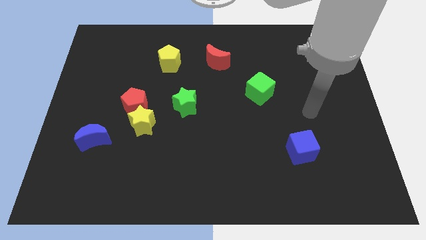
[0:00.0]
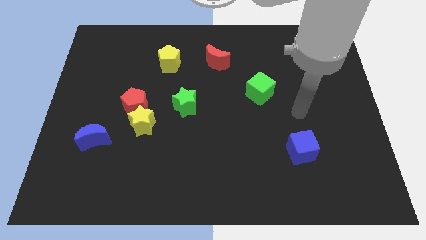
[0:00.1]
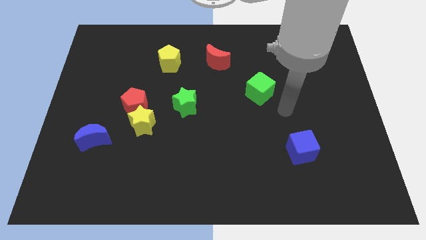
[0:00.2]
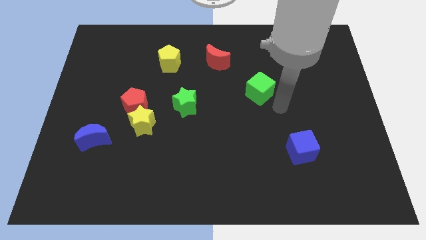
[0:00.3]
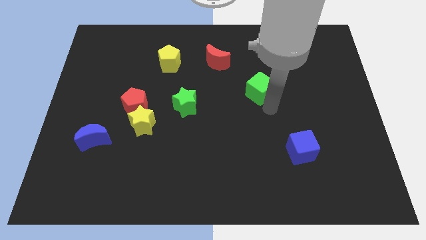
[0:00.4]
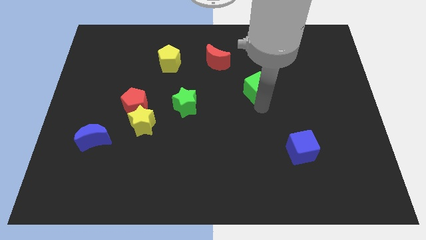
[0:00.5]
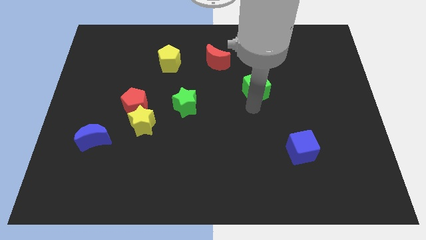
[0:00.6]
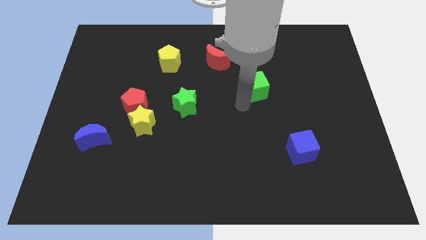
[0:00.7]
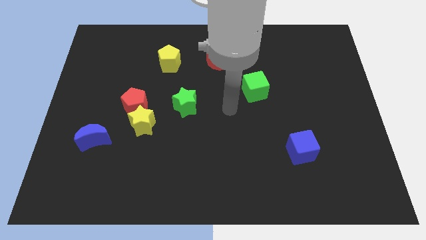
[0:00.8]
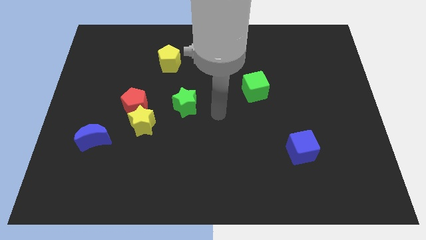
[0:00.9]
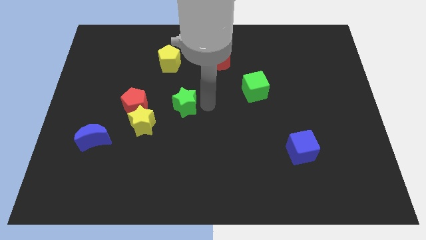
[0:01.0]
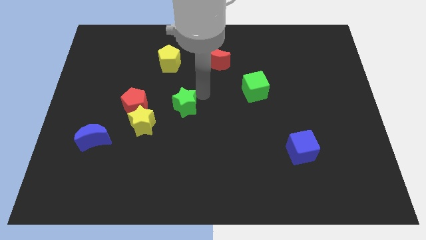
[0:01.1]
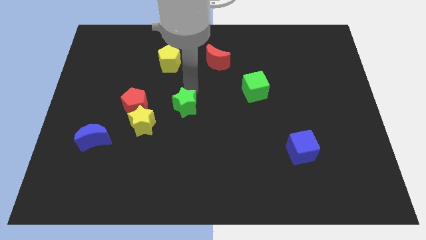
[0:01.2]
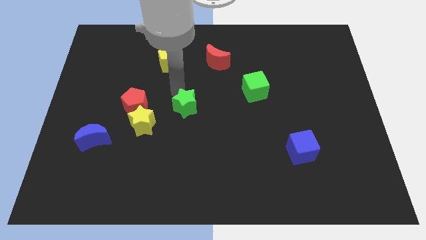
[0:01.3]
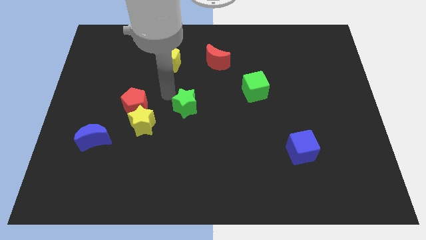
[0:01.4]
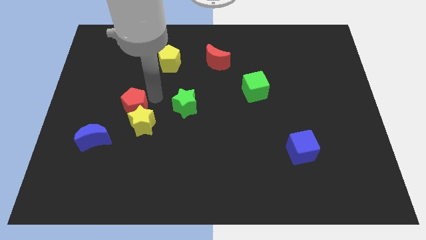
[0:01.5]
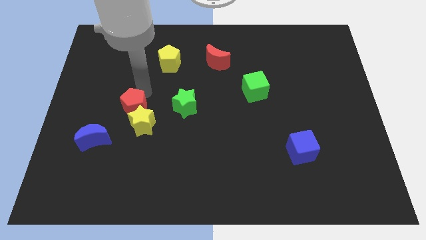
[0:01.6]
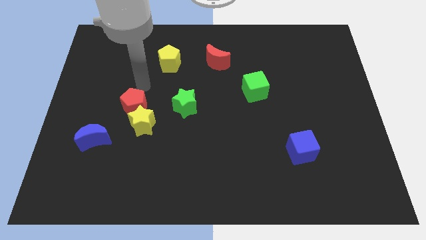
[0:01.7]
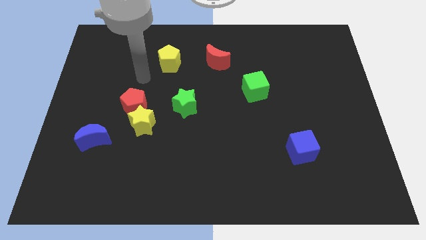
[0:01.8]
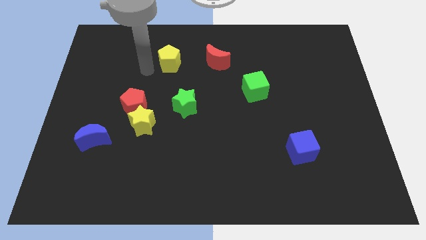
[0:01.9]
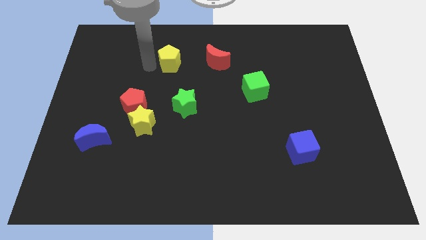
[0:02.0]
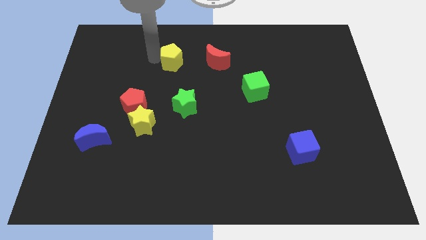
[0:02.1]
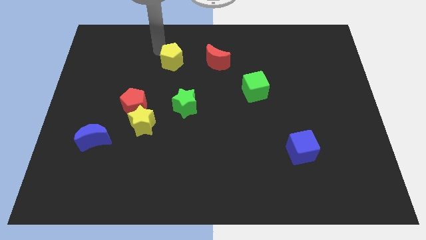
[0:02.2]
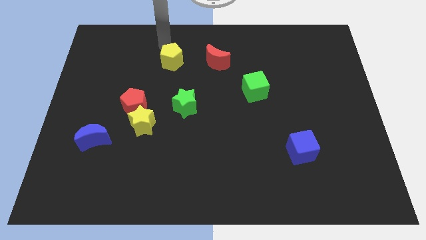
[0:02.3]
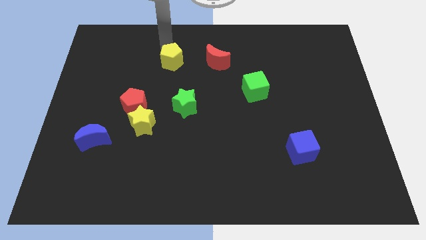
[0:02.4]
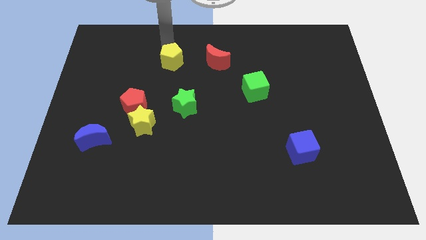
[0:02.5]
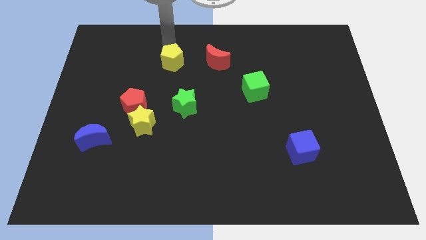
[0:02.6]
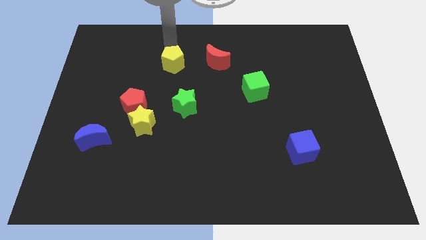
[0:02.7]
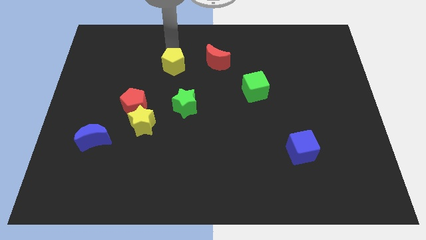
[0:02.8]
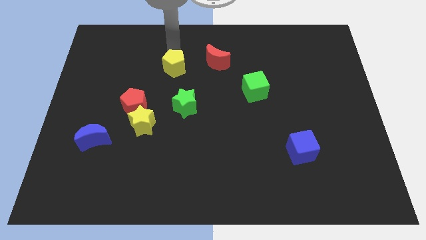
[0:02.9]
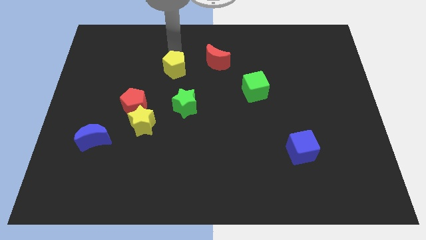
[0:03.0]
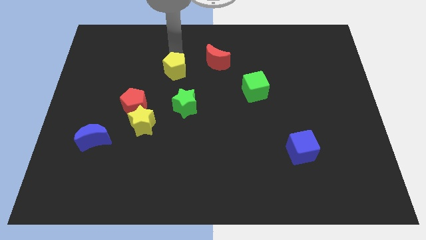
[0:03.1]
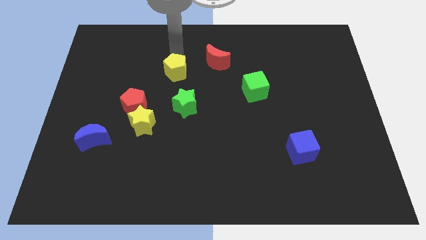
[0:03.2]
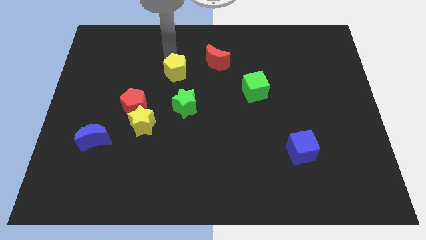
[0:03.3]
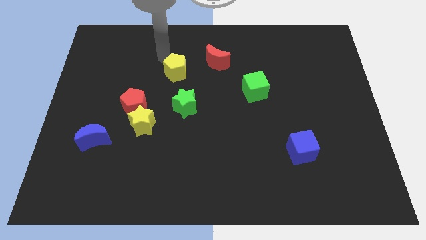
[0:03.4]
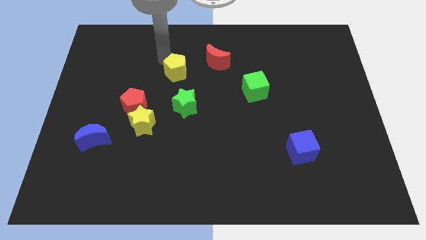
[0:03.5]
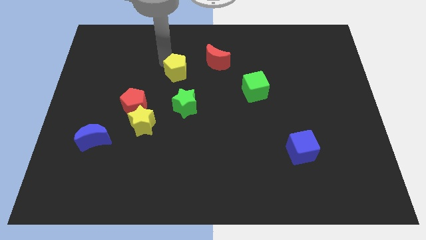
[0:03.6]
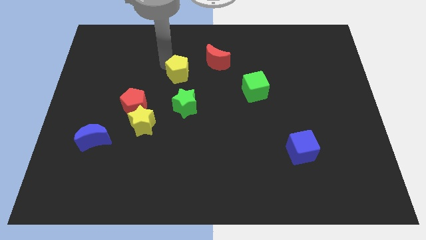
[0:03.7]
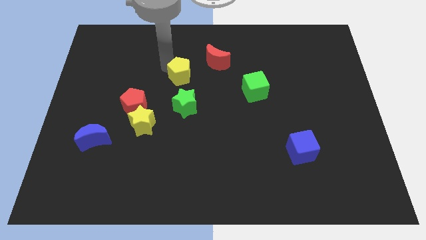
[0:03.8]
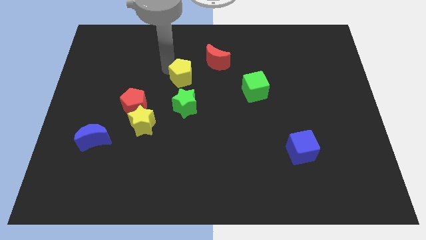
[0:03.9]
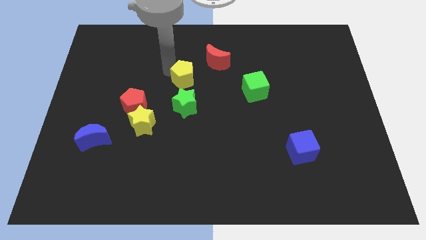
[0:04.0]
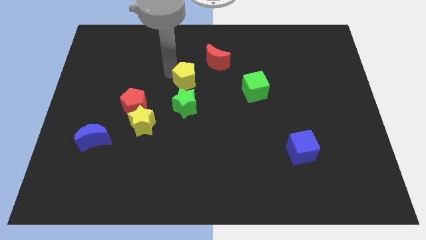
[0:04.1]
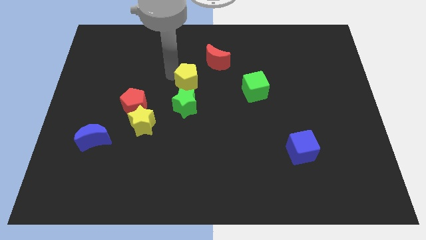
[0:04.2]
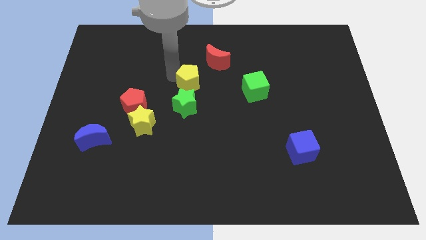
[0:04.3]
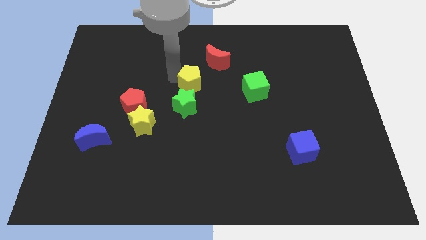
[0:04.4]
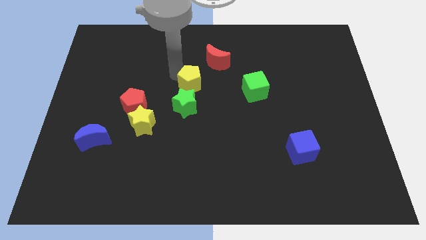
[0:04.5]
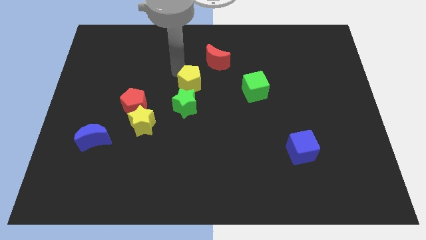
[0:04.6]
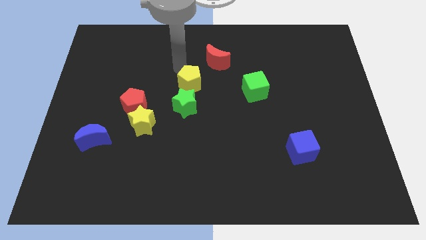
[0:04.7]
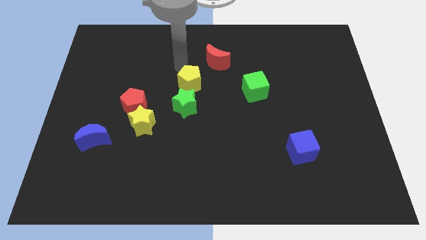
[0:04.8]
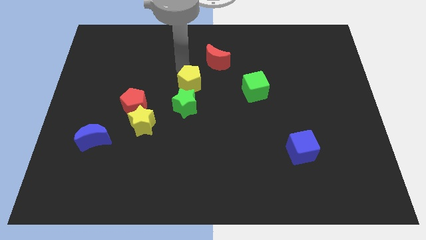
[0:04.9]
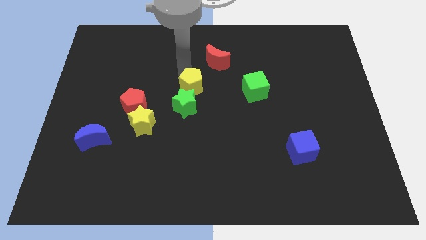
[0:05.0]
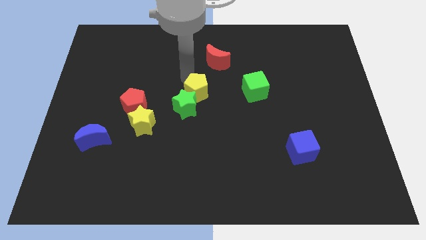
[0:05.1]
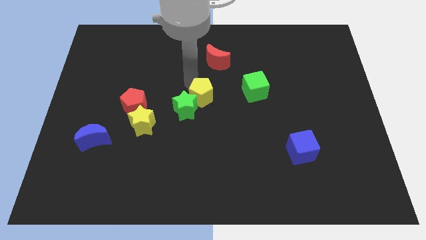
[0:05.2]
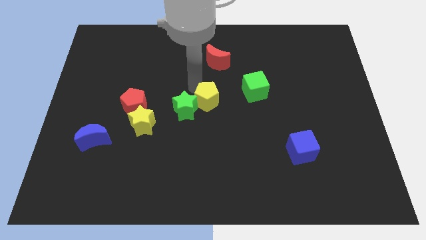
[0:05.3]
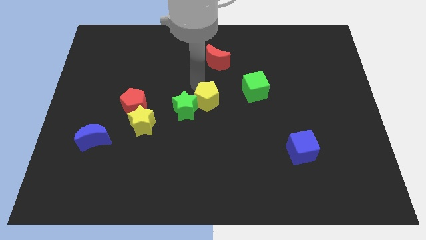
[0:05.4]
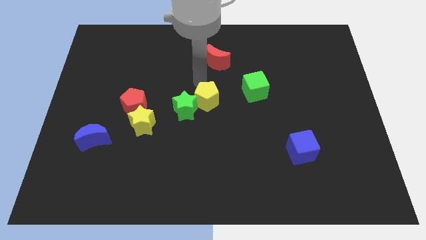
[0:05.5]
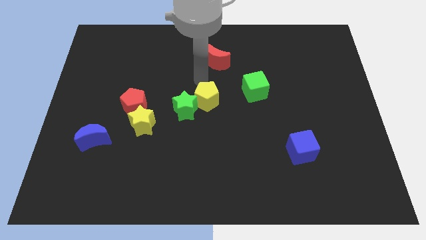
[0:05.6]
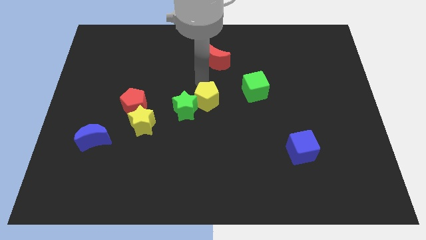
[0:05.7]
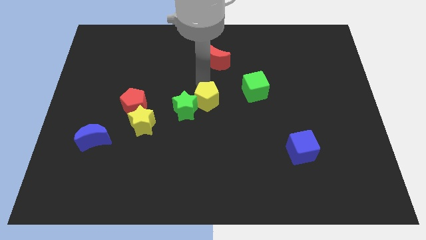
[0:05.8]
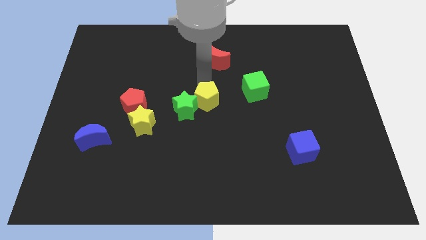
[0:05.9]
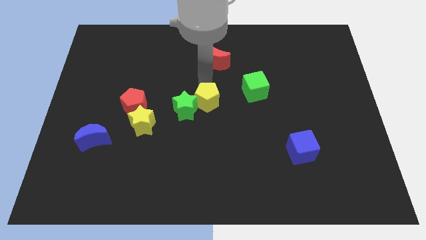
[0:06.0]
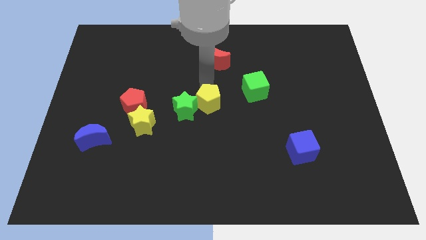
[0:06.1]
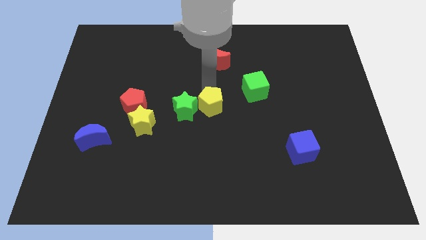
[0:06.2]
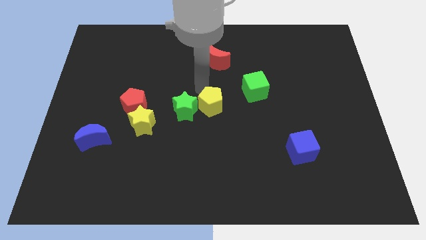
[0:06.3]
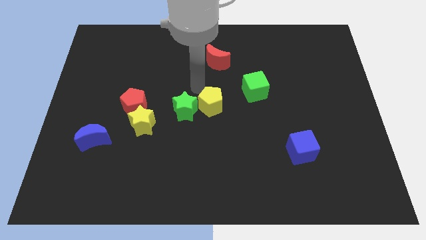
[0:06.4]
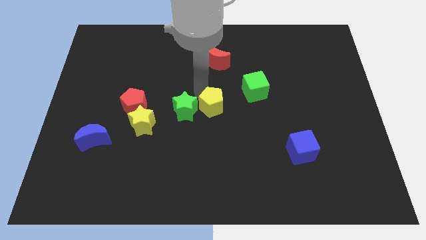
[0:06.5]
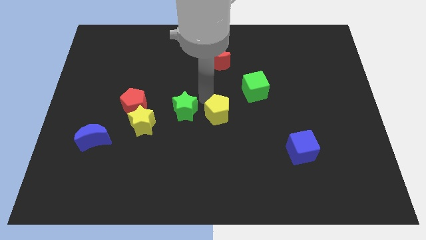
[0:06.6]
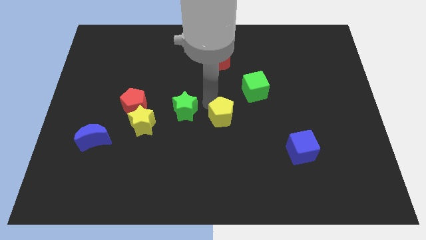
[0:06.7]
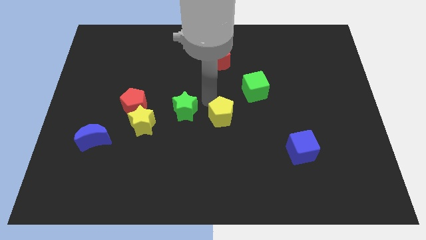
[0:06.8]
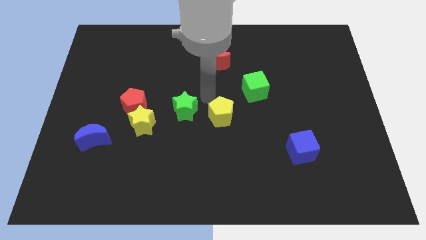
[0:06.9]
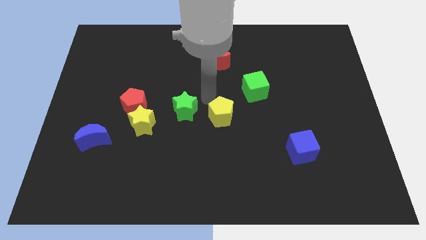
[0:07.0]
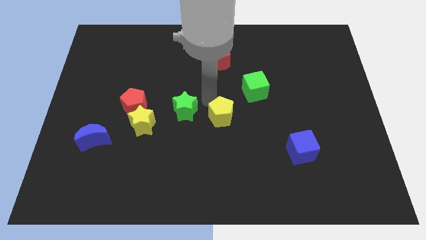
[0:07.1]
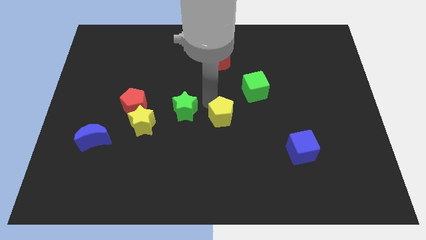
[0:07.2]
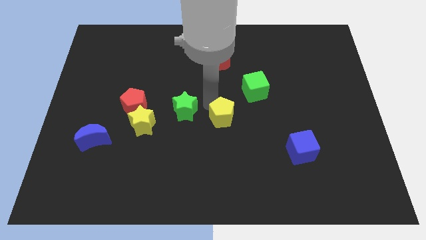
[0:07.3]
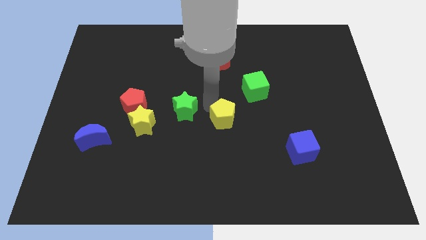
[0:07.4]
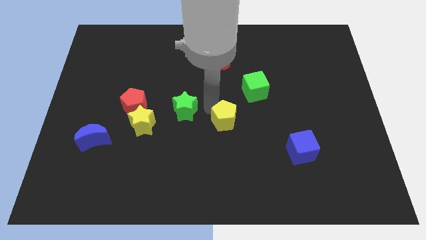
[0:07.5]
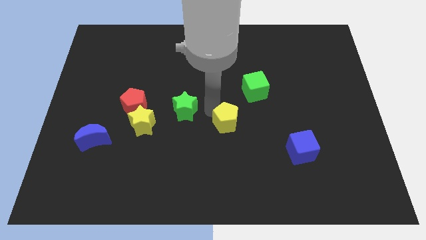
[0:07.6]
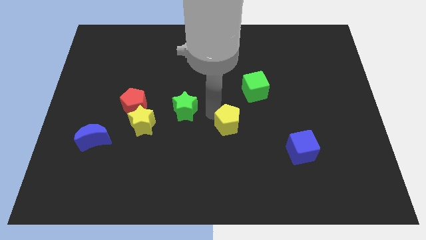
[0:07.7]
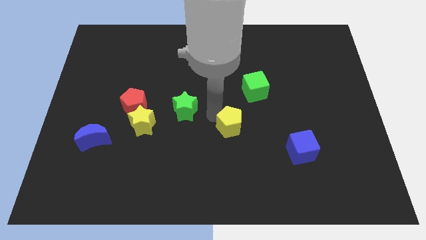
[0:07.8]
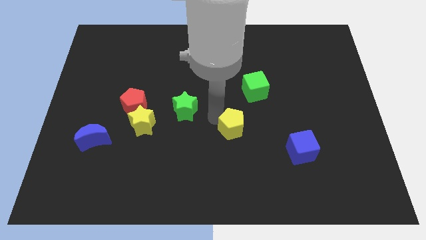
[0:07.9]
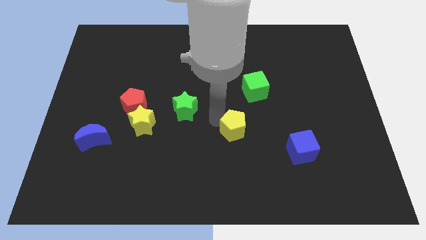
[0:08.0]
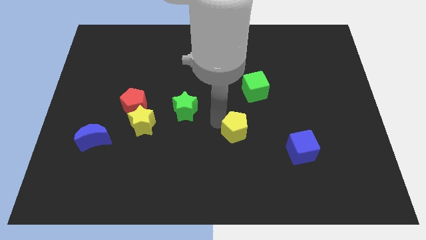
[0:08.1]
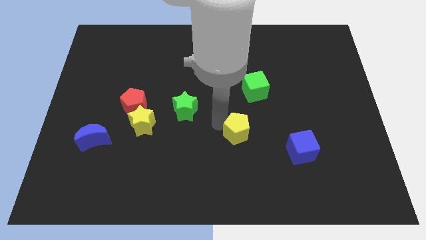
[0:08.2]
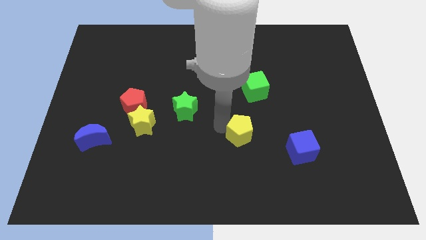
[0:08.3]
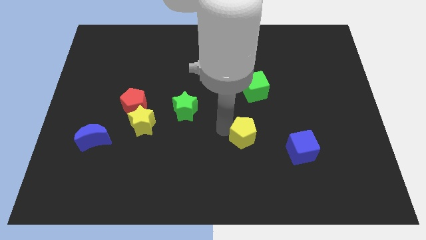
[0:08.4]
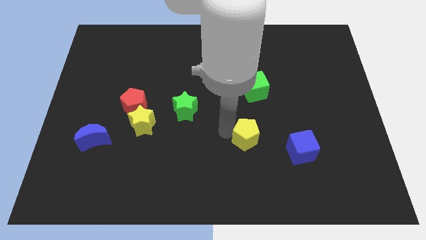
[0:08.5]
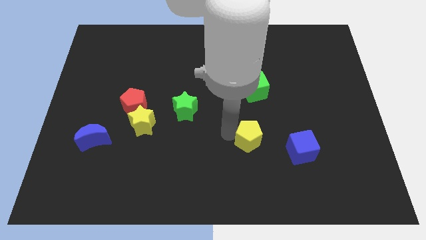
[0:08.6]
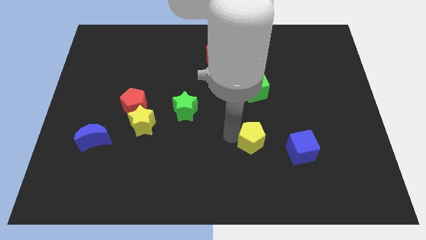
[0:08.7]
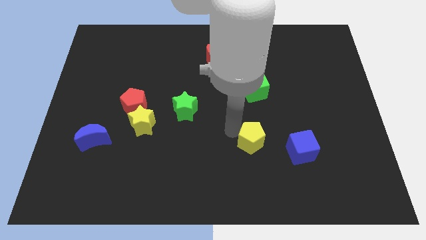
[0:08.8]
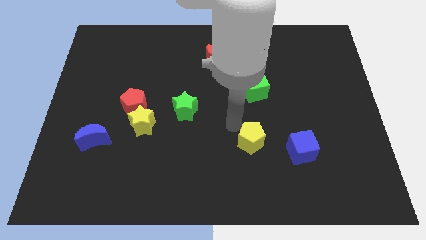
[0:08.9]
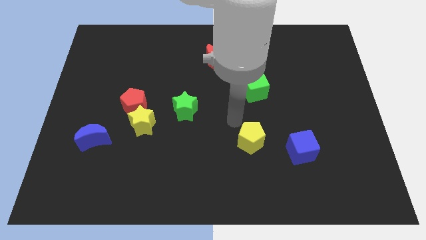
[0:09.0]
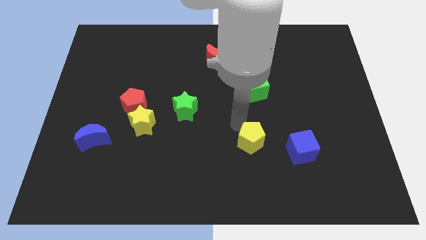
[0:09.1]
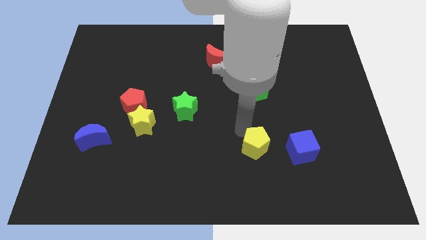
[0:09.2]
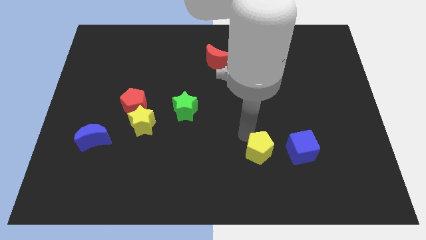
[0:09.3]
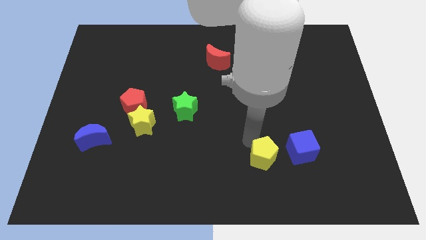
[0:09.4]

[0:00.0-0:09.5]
push the yellow pentagon to the bottom left of the blue cube
